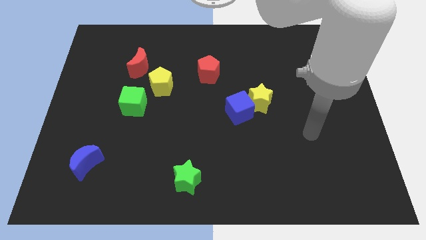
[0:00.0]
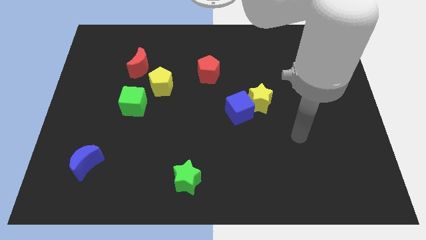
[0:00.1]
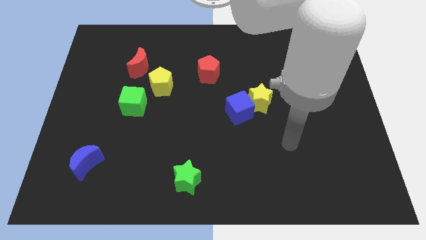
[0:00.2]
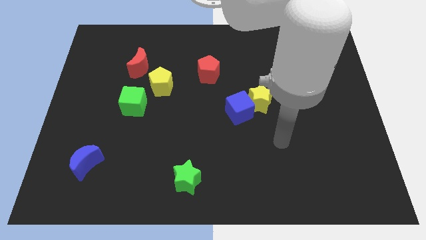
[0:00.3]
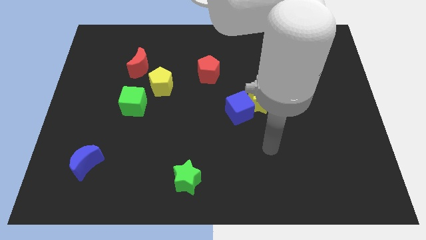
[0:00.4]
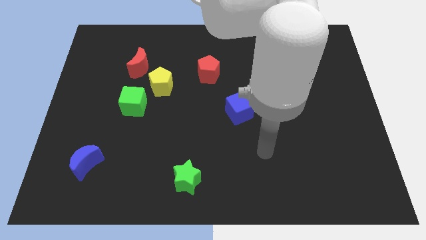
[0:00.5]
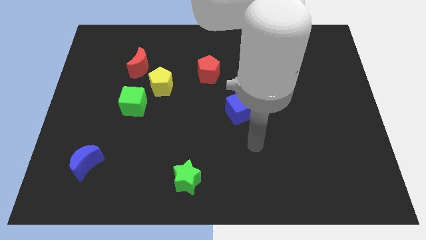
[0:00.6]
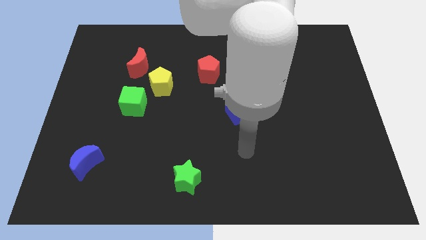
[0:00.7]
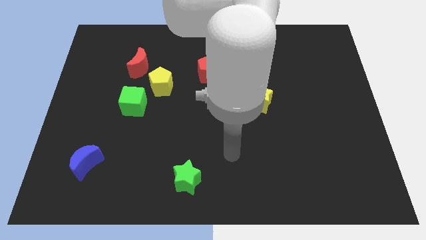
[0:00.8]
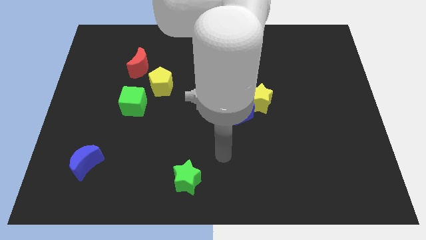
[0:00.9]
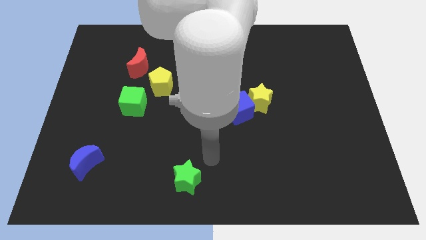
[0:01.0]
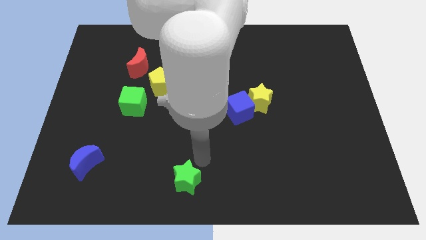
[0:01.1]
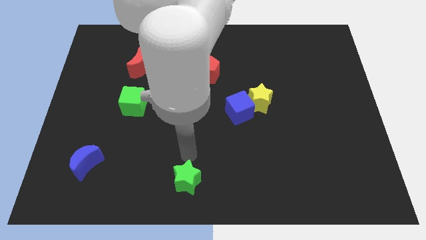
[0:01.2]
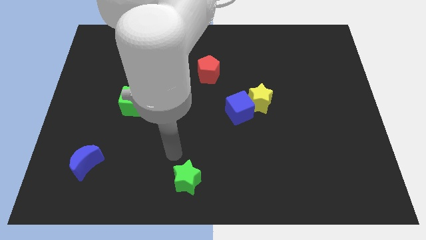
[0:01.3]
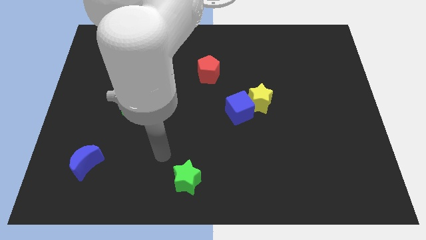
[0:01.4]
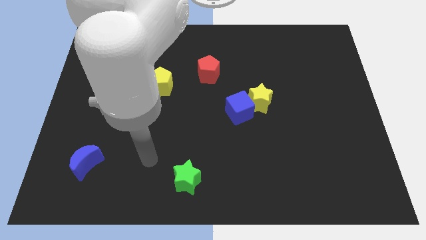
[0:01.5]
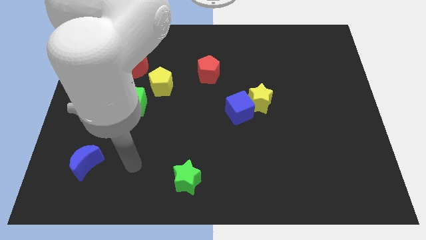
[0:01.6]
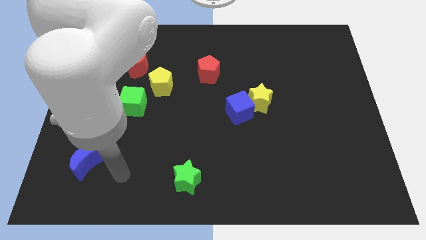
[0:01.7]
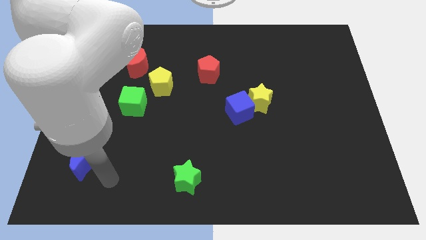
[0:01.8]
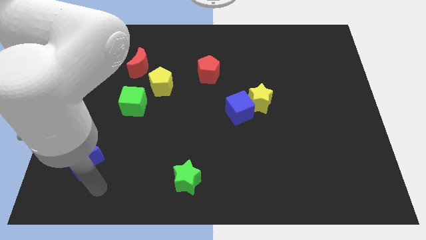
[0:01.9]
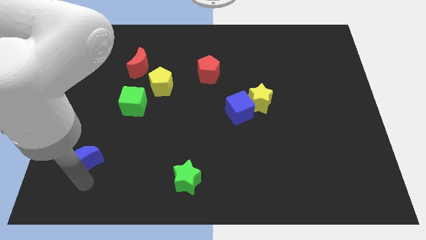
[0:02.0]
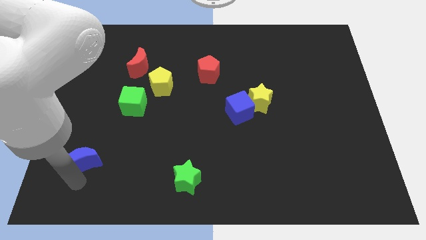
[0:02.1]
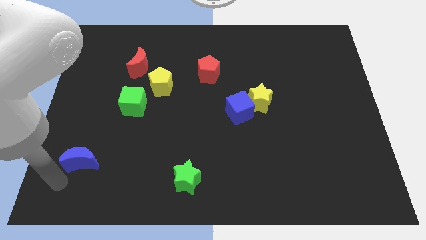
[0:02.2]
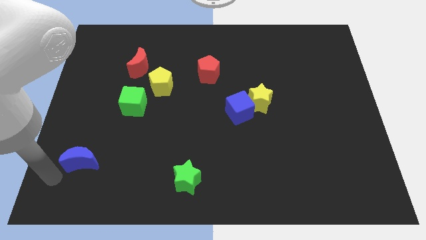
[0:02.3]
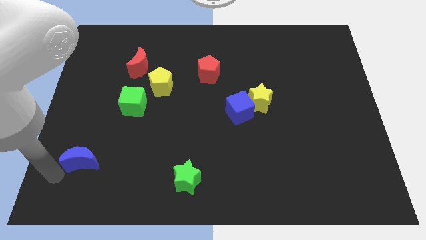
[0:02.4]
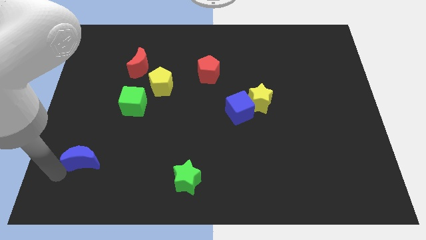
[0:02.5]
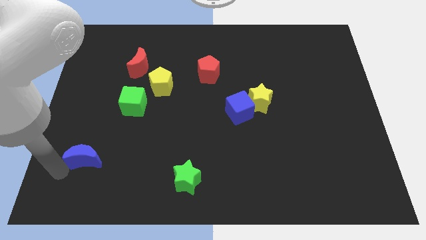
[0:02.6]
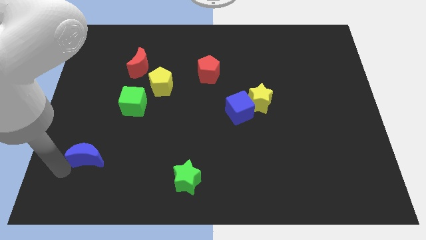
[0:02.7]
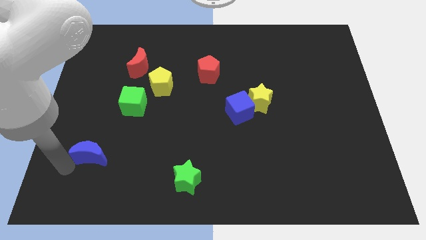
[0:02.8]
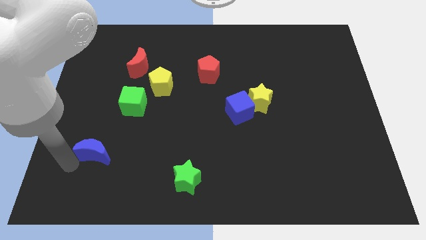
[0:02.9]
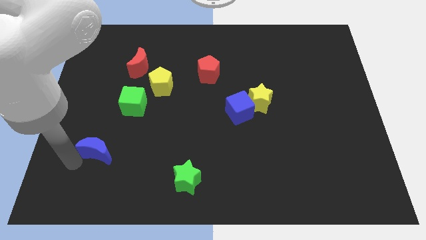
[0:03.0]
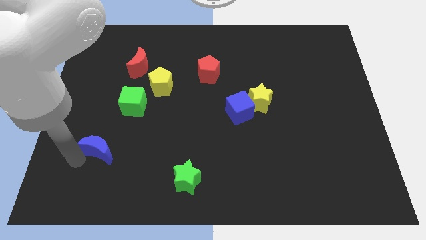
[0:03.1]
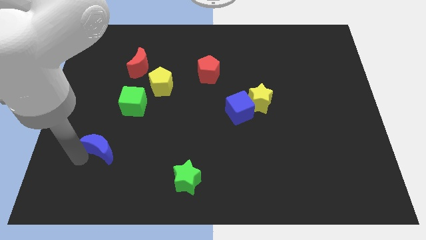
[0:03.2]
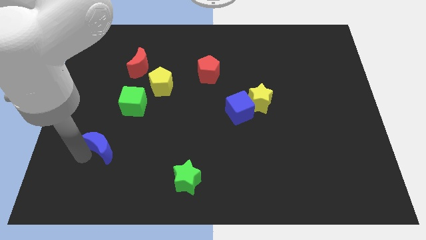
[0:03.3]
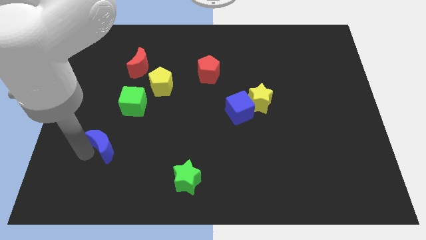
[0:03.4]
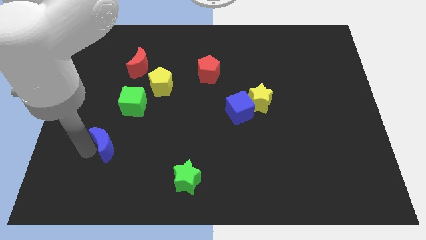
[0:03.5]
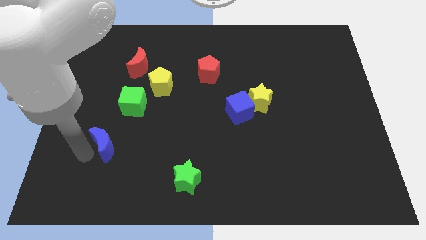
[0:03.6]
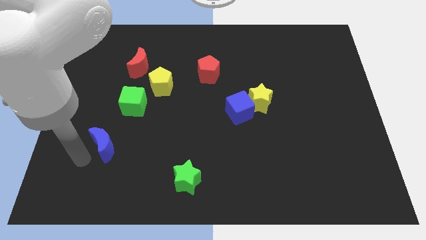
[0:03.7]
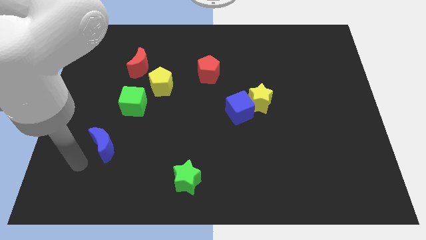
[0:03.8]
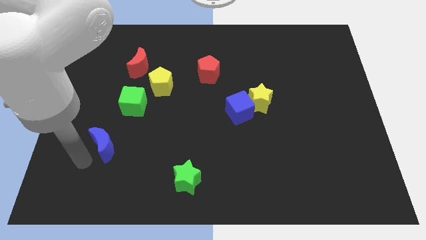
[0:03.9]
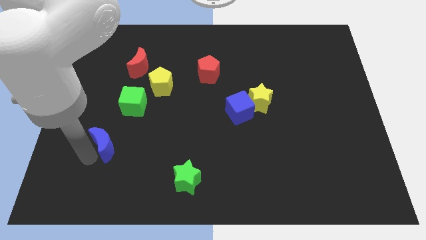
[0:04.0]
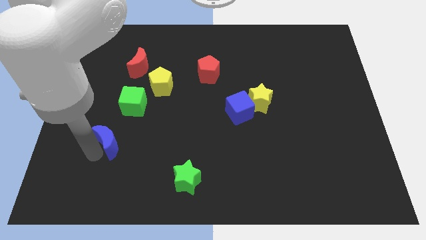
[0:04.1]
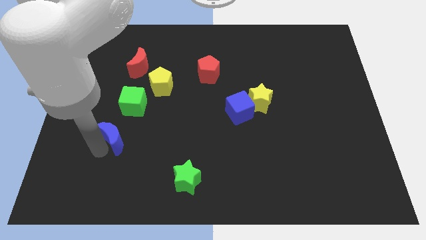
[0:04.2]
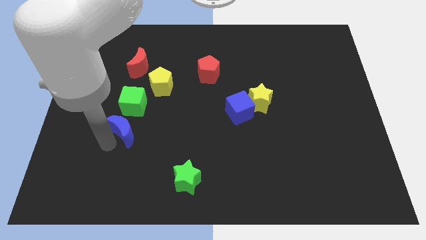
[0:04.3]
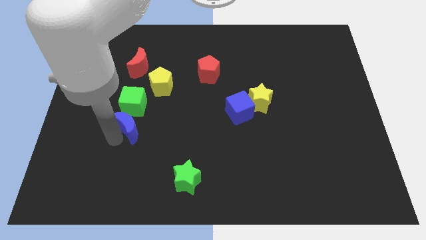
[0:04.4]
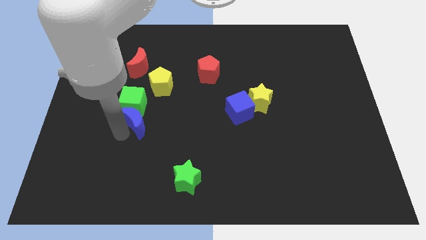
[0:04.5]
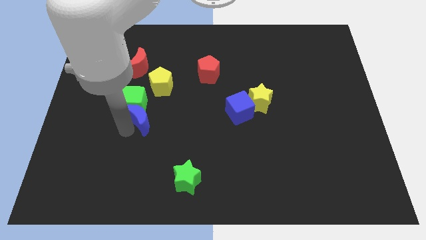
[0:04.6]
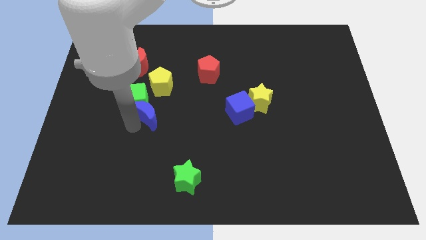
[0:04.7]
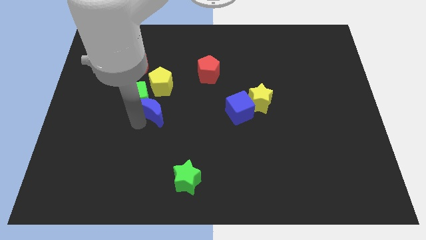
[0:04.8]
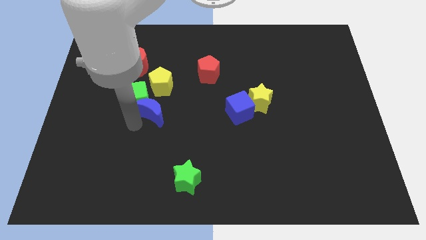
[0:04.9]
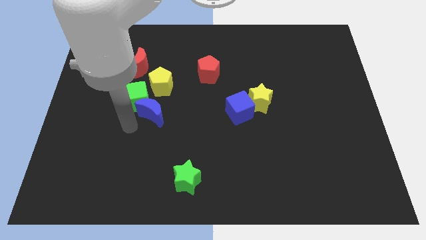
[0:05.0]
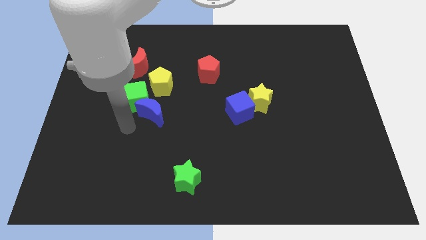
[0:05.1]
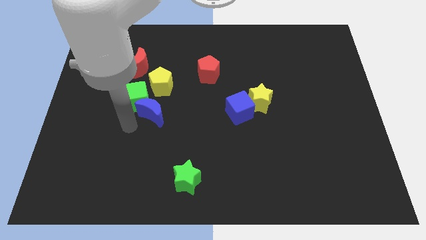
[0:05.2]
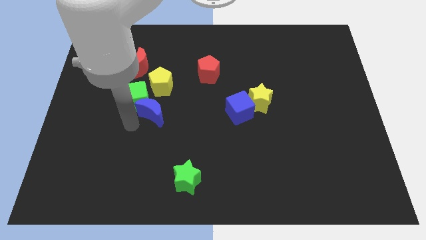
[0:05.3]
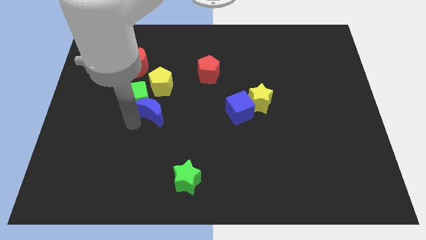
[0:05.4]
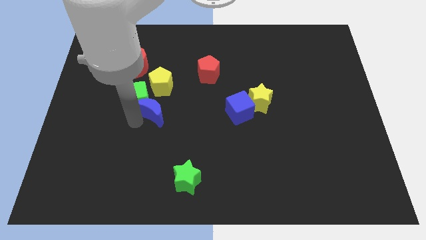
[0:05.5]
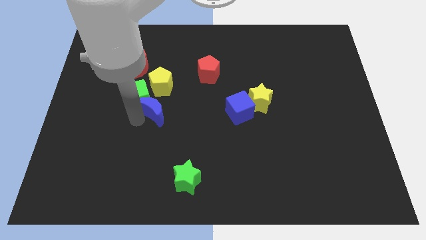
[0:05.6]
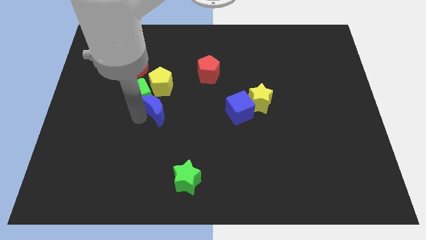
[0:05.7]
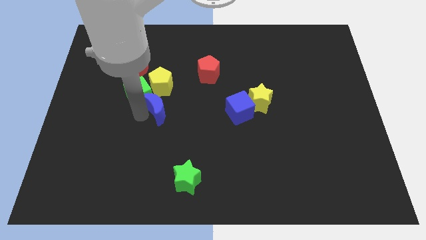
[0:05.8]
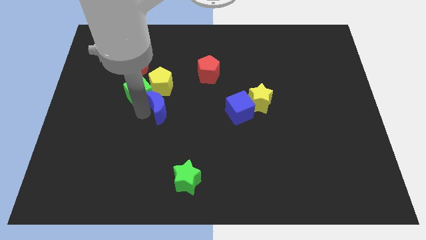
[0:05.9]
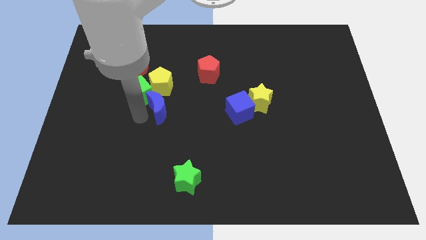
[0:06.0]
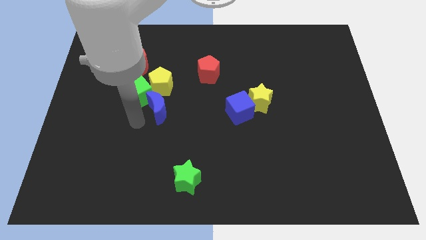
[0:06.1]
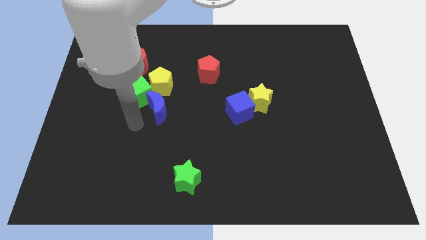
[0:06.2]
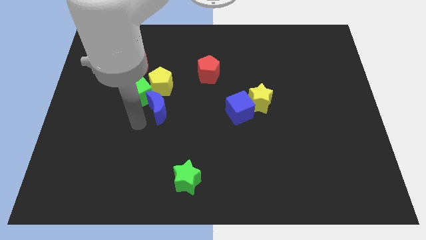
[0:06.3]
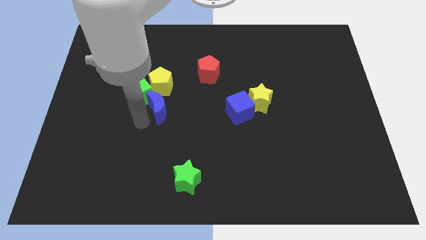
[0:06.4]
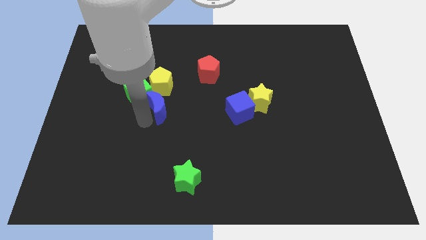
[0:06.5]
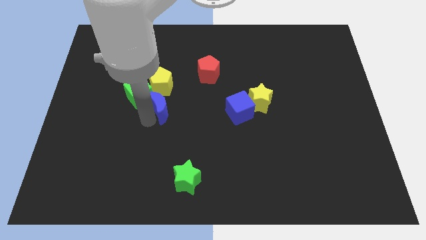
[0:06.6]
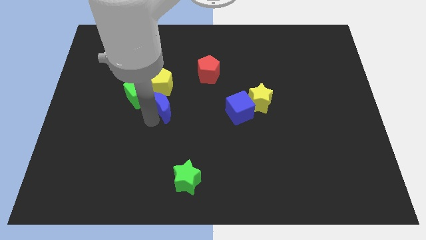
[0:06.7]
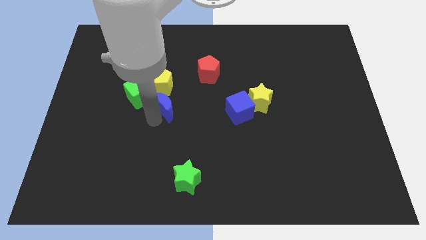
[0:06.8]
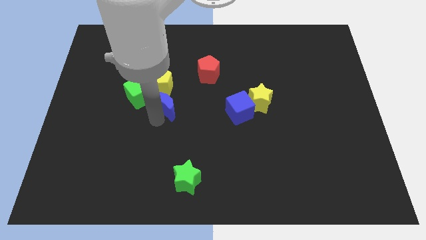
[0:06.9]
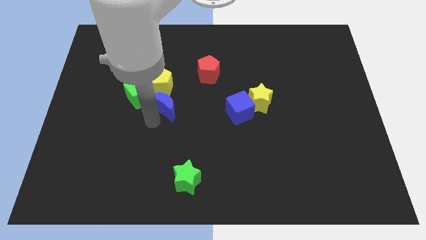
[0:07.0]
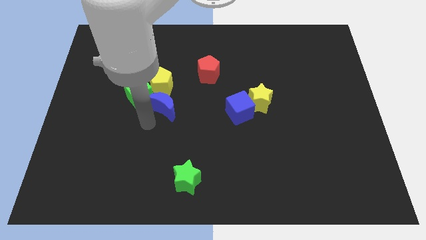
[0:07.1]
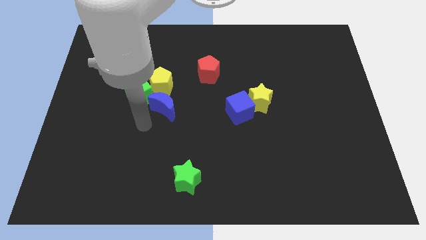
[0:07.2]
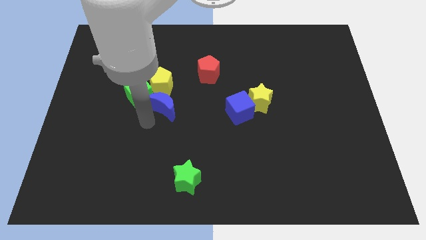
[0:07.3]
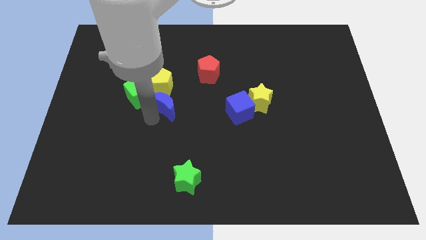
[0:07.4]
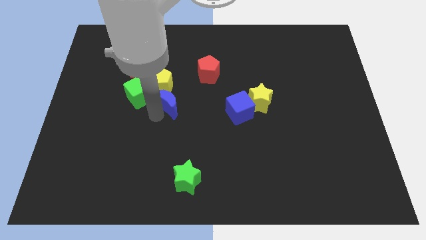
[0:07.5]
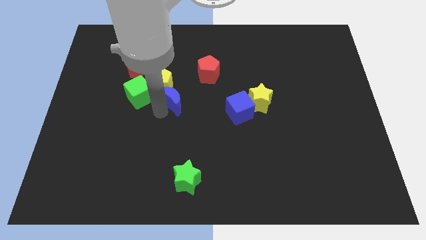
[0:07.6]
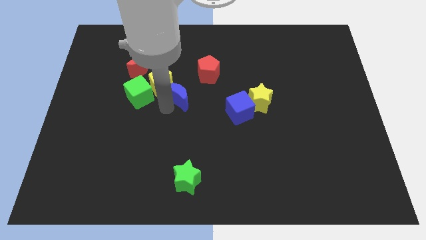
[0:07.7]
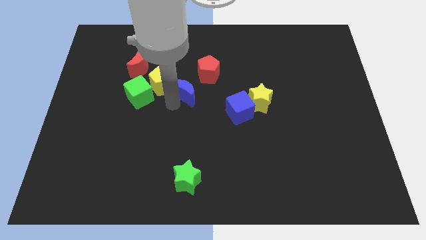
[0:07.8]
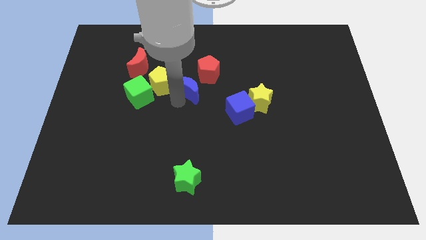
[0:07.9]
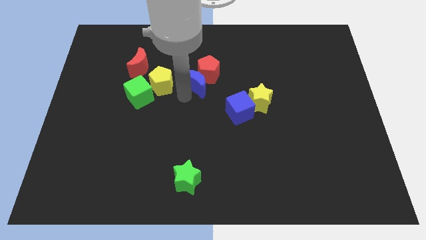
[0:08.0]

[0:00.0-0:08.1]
move the blue moon towards the red pentagon
